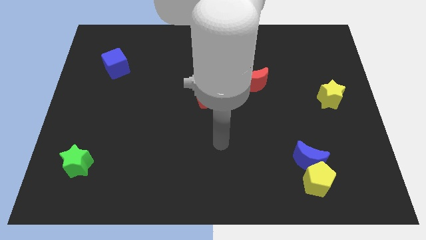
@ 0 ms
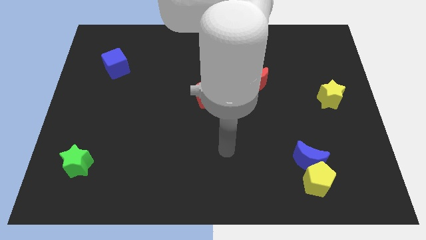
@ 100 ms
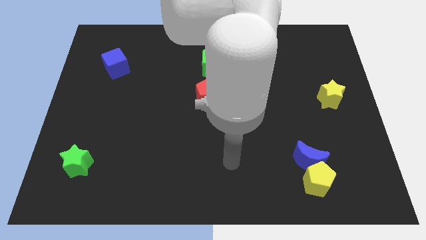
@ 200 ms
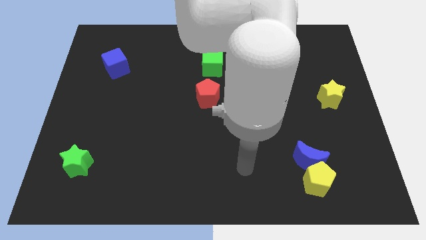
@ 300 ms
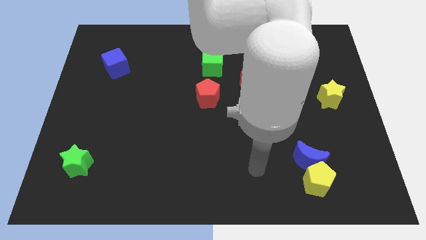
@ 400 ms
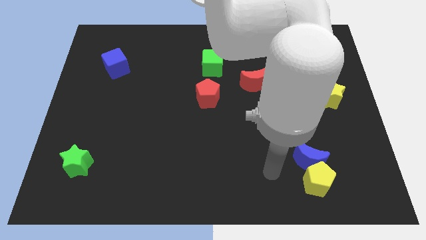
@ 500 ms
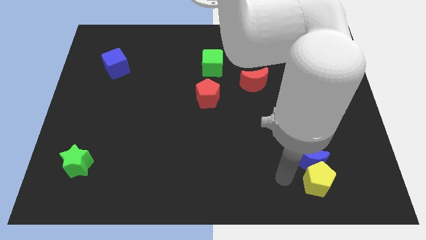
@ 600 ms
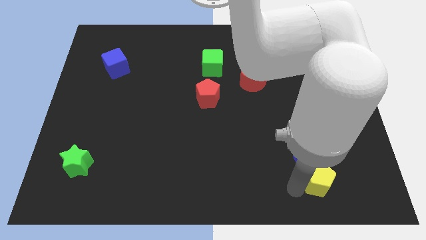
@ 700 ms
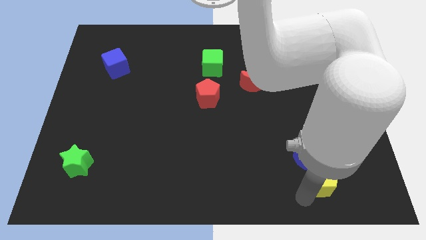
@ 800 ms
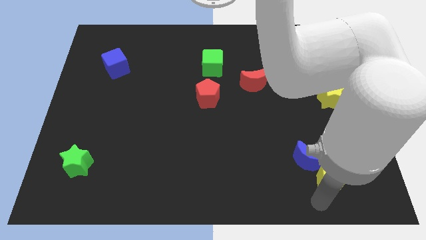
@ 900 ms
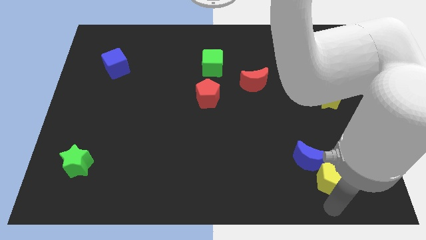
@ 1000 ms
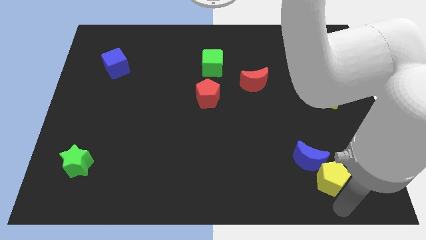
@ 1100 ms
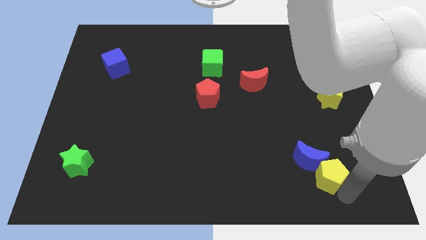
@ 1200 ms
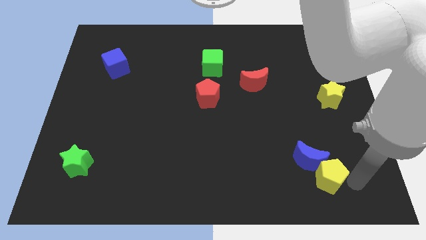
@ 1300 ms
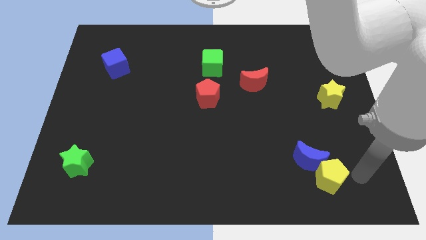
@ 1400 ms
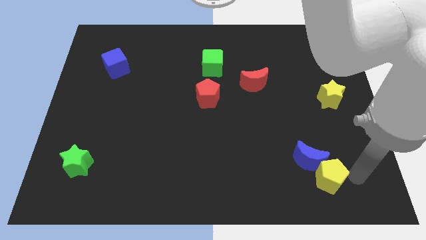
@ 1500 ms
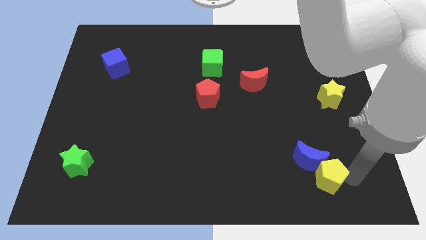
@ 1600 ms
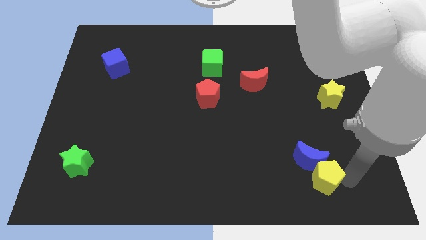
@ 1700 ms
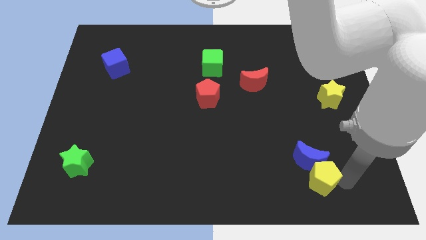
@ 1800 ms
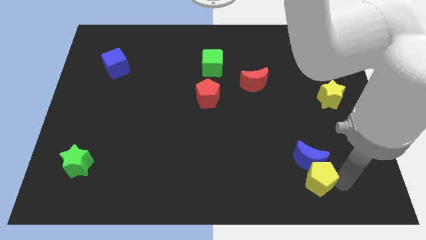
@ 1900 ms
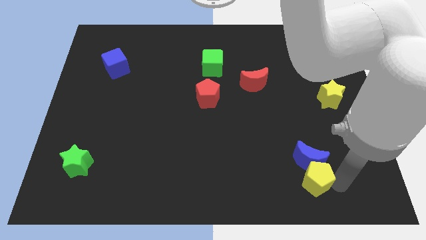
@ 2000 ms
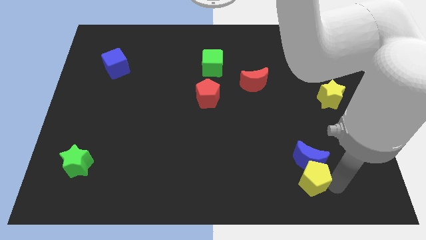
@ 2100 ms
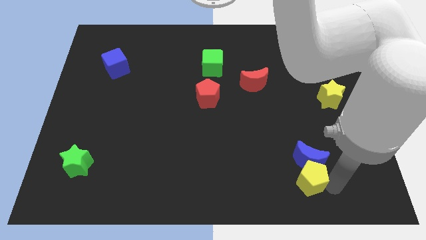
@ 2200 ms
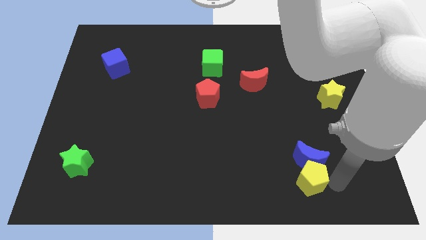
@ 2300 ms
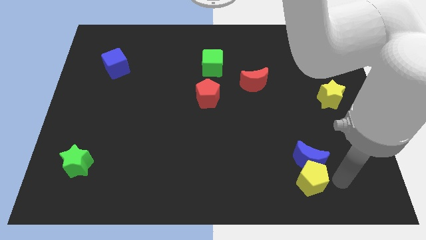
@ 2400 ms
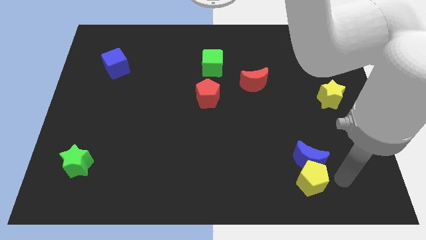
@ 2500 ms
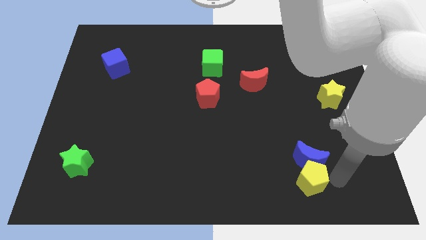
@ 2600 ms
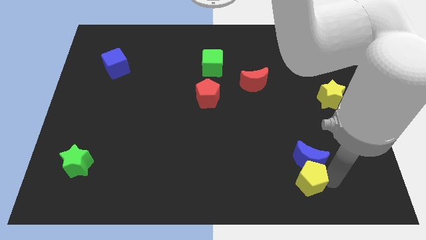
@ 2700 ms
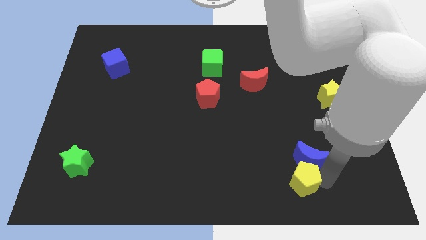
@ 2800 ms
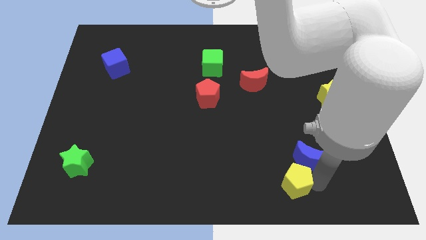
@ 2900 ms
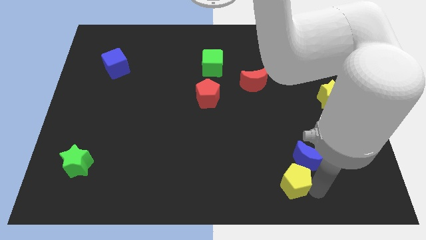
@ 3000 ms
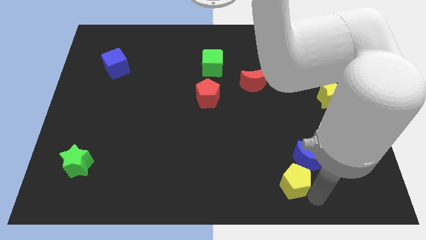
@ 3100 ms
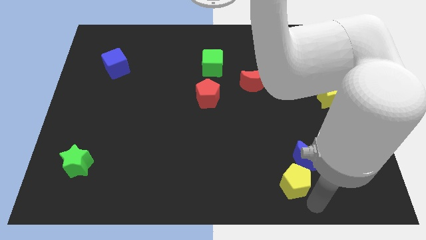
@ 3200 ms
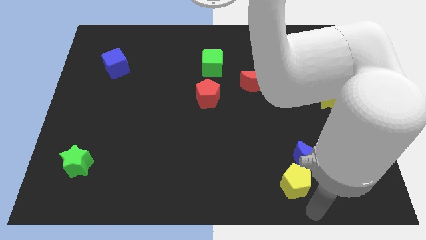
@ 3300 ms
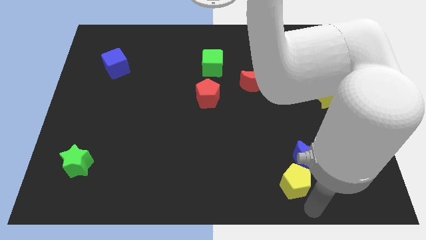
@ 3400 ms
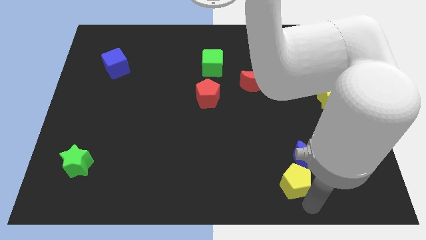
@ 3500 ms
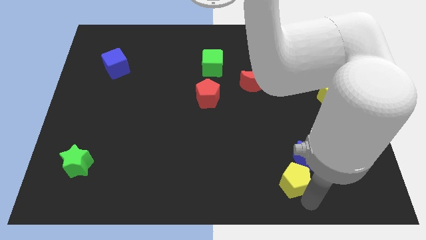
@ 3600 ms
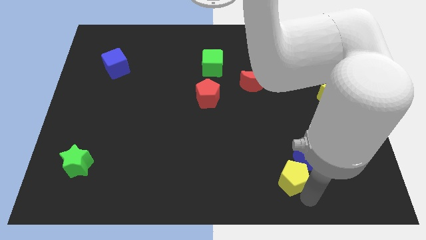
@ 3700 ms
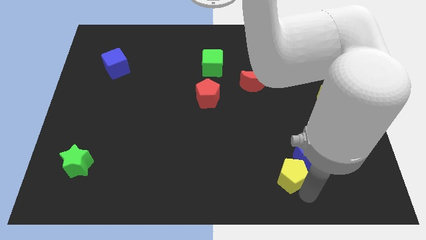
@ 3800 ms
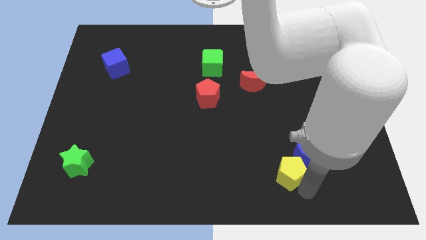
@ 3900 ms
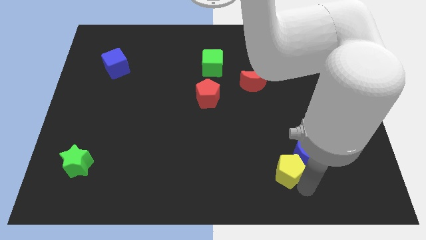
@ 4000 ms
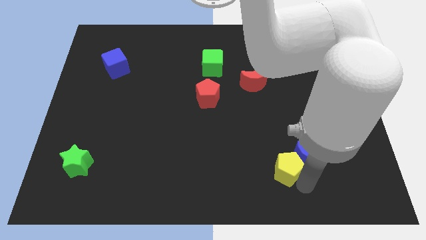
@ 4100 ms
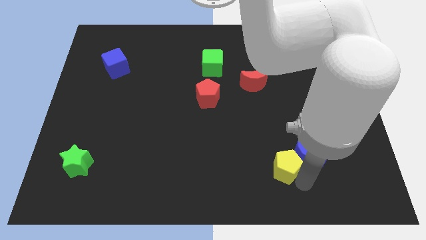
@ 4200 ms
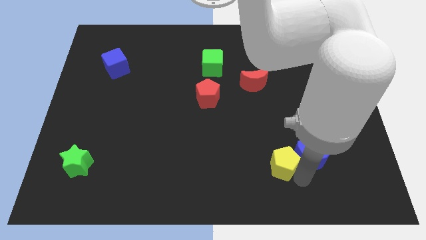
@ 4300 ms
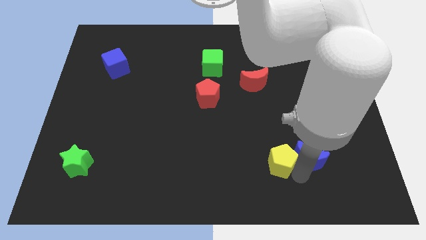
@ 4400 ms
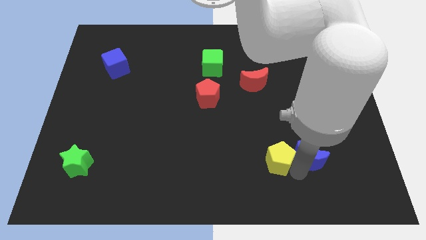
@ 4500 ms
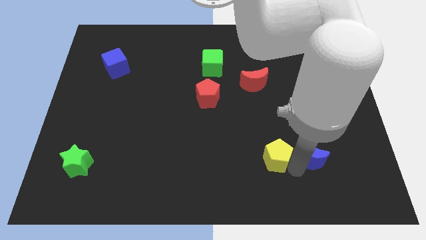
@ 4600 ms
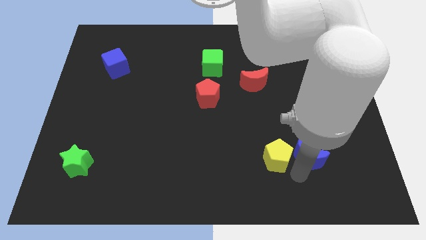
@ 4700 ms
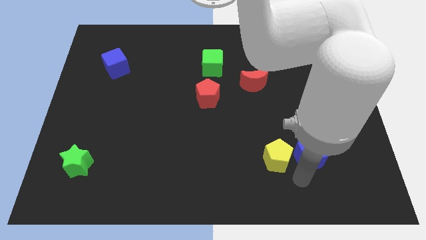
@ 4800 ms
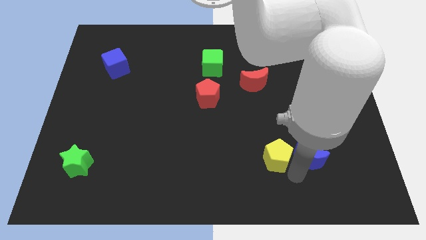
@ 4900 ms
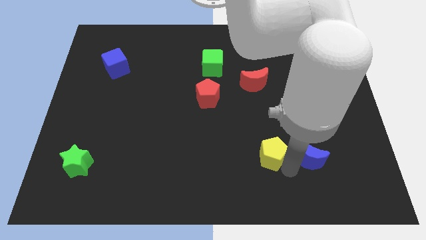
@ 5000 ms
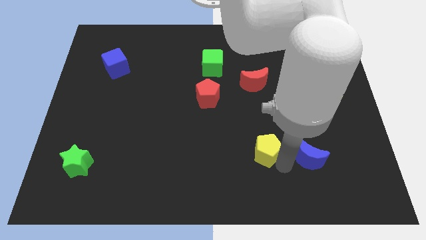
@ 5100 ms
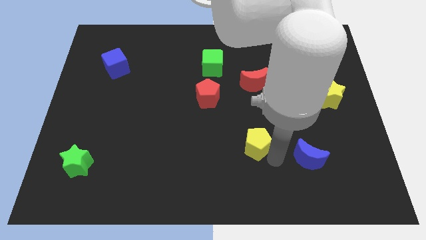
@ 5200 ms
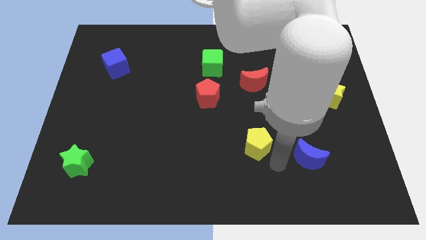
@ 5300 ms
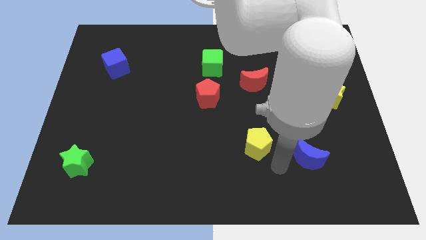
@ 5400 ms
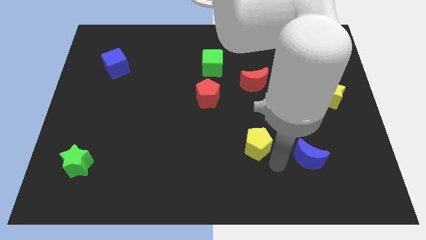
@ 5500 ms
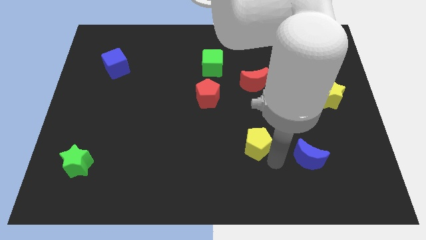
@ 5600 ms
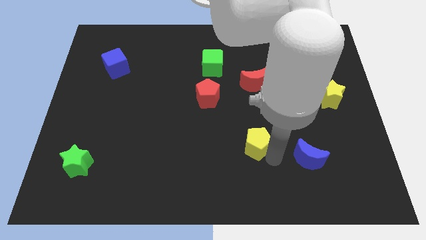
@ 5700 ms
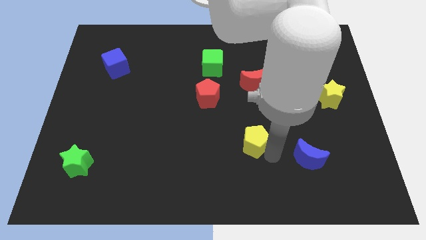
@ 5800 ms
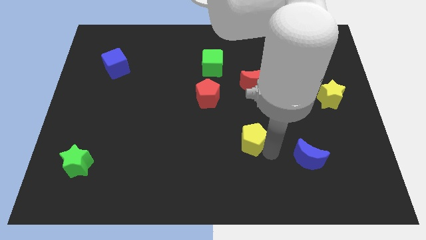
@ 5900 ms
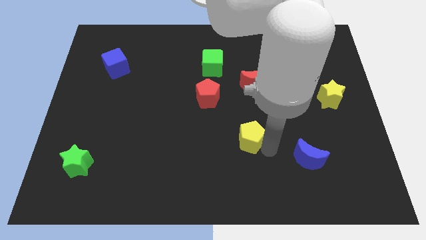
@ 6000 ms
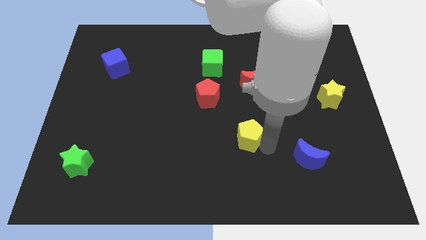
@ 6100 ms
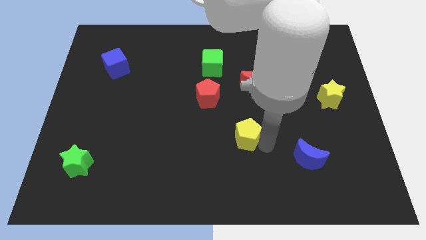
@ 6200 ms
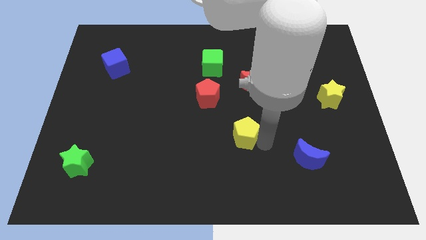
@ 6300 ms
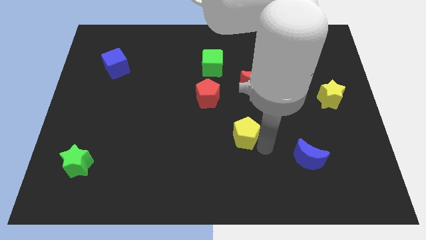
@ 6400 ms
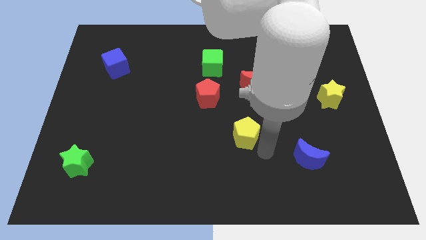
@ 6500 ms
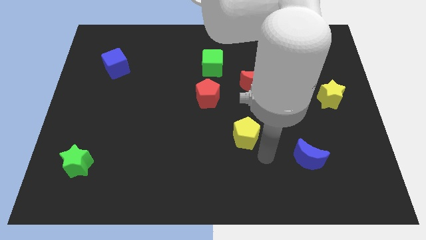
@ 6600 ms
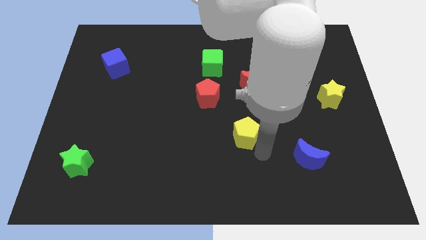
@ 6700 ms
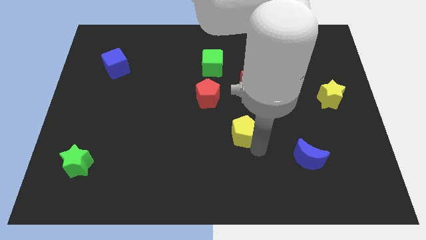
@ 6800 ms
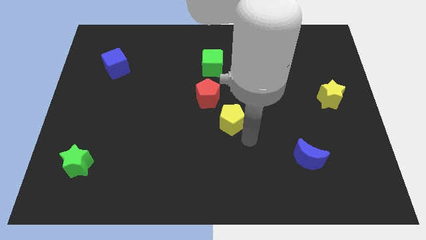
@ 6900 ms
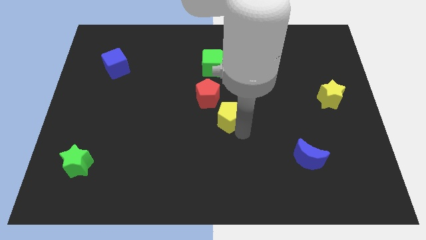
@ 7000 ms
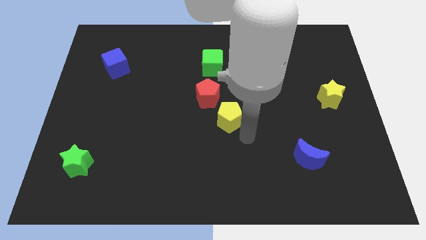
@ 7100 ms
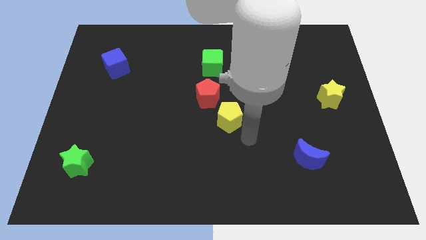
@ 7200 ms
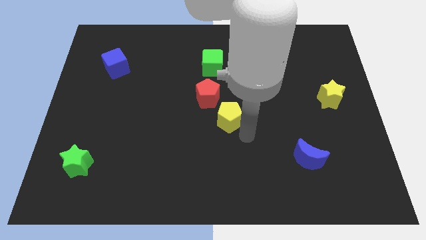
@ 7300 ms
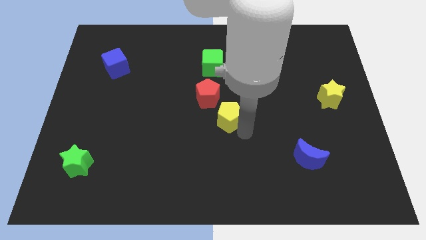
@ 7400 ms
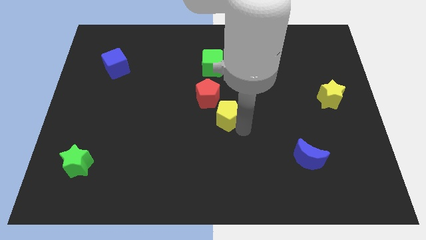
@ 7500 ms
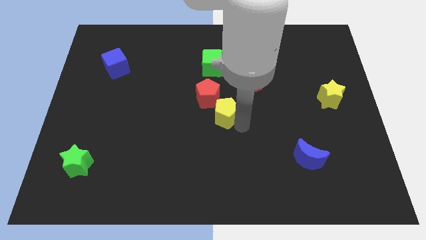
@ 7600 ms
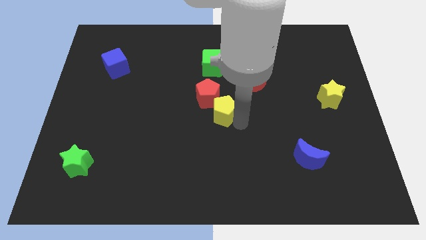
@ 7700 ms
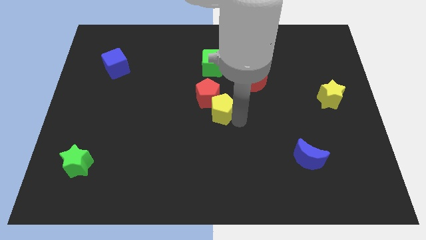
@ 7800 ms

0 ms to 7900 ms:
put the yellow pentagon towards the red pentagon

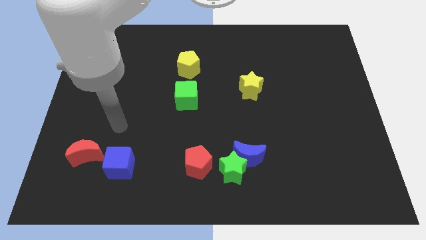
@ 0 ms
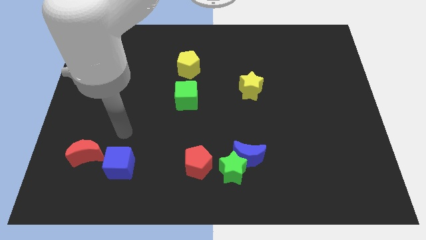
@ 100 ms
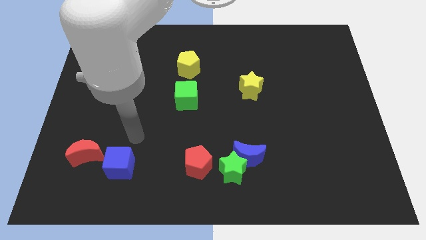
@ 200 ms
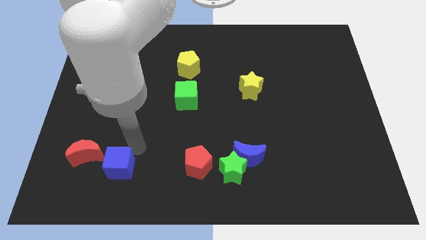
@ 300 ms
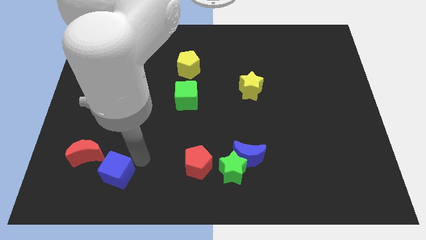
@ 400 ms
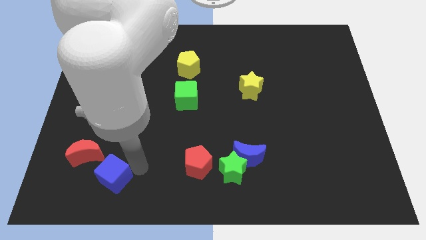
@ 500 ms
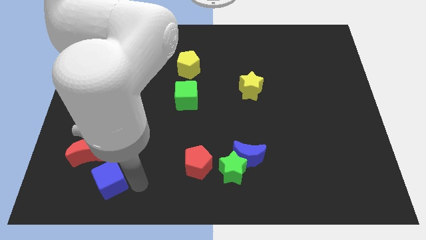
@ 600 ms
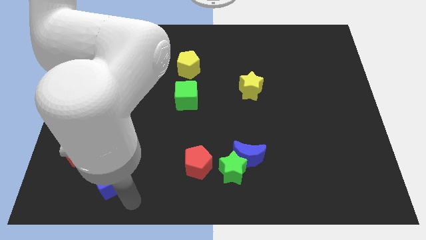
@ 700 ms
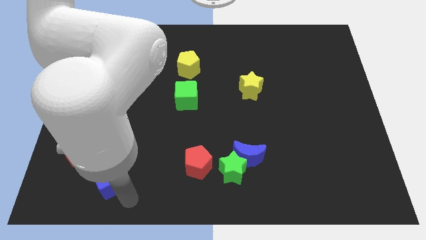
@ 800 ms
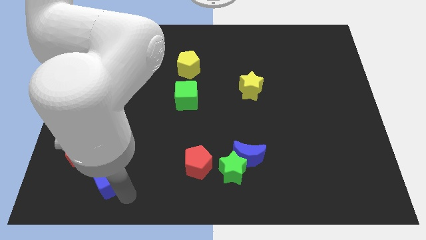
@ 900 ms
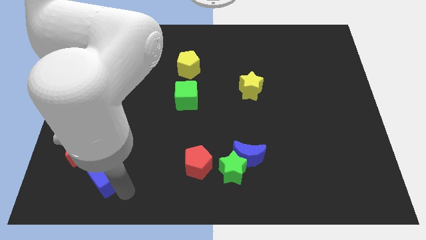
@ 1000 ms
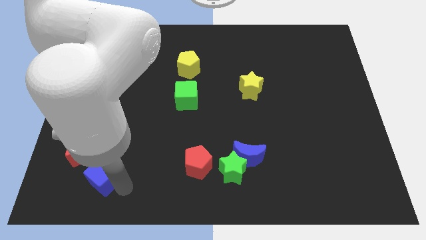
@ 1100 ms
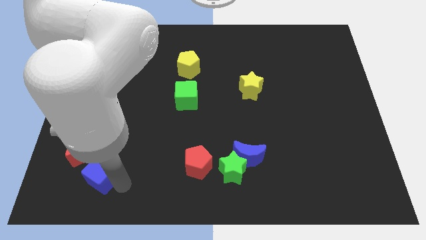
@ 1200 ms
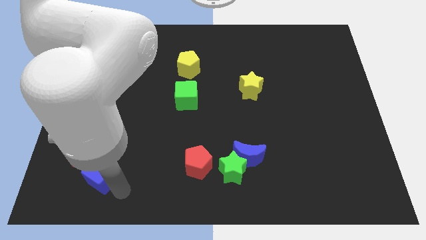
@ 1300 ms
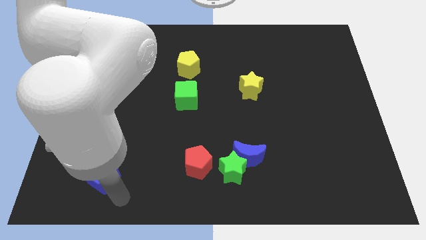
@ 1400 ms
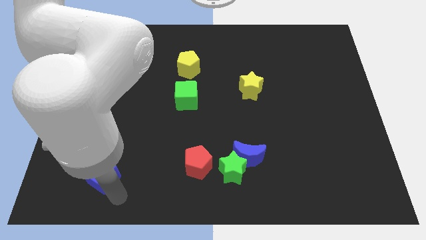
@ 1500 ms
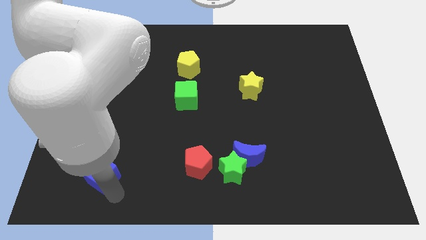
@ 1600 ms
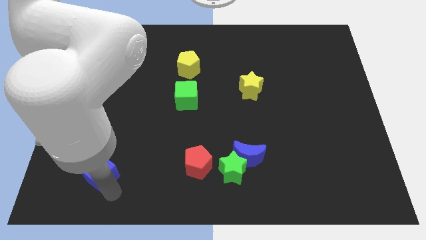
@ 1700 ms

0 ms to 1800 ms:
move the blue cube to the red moon
